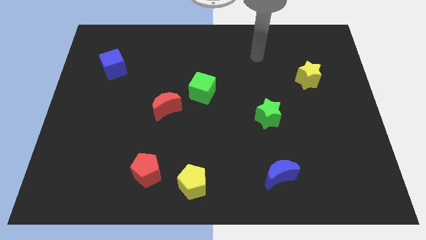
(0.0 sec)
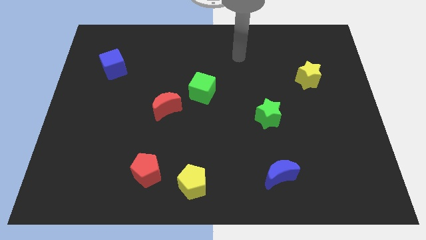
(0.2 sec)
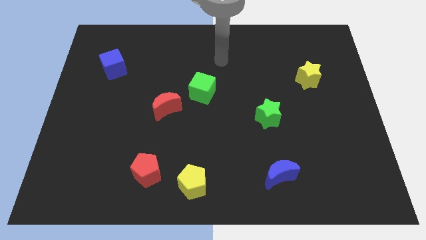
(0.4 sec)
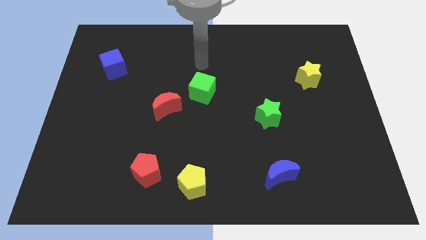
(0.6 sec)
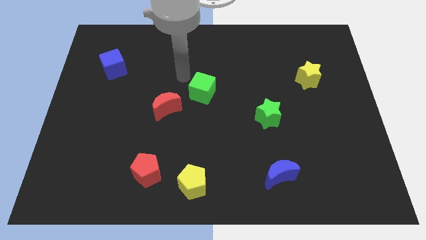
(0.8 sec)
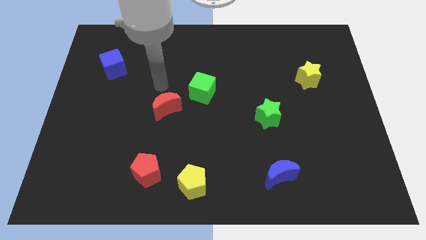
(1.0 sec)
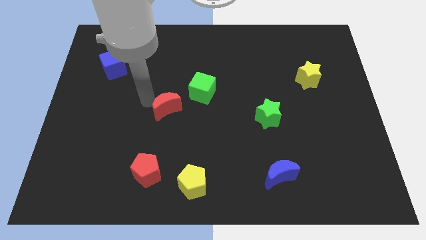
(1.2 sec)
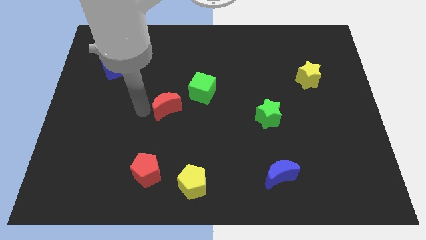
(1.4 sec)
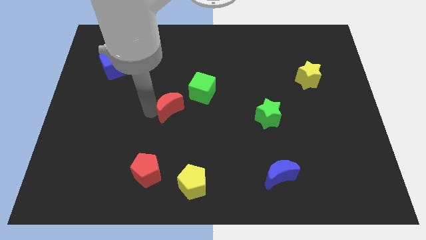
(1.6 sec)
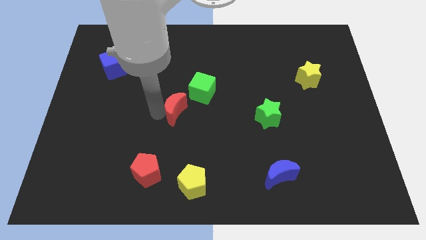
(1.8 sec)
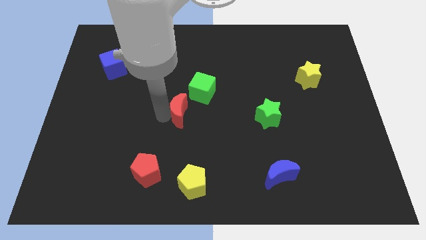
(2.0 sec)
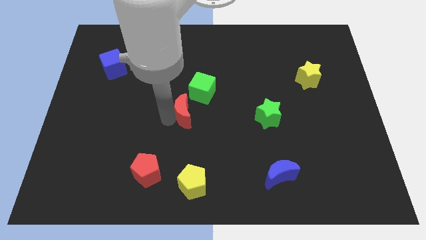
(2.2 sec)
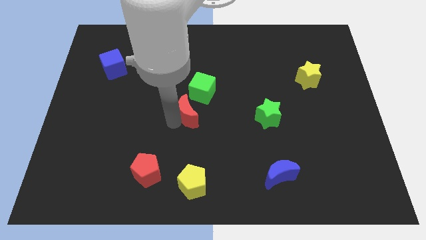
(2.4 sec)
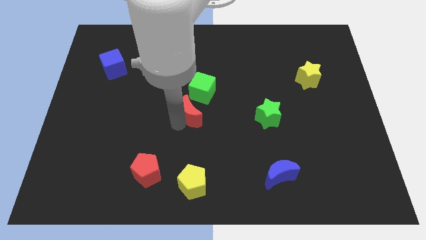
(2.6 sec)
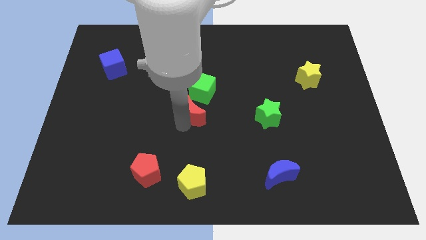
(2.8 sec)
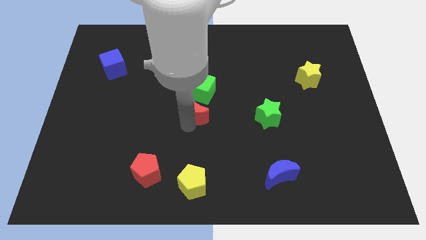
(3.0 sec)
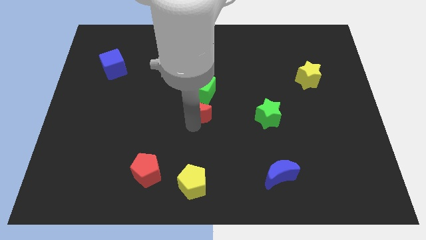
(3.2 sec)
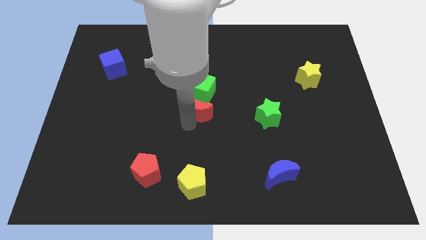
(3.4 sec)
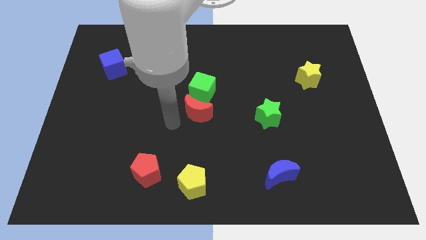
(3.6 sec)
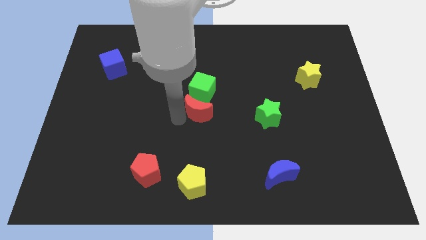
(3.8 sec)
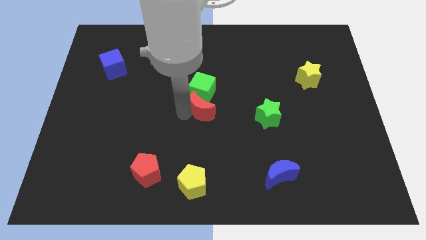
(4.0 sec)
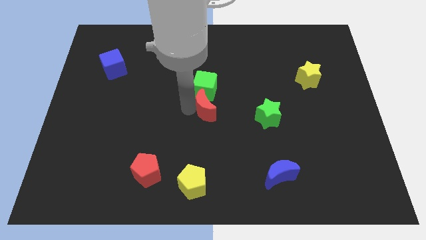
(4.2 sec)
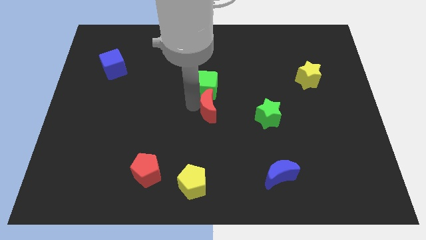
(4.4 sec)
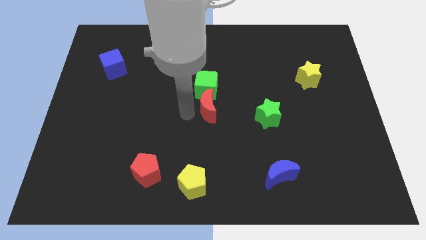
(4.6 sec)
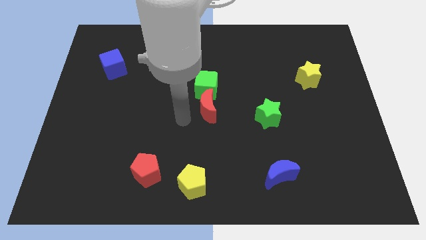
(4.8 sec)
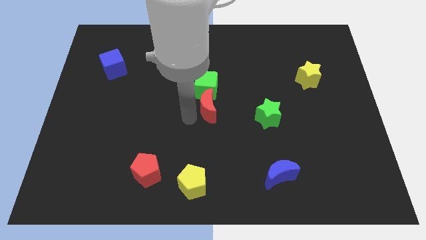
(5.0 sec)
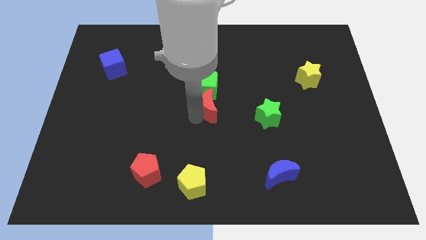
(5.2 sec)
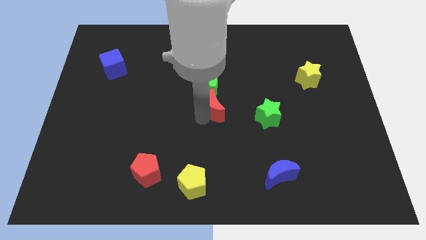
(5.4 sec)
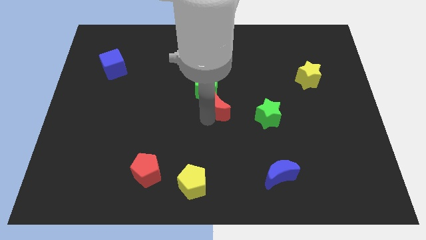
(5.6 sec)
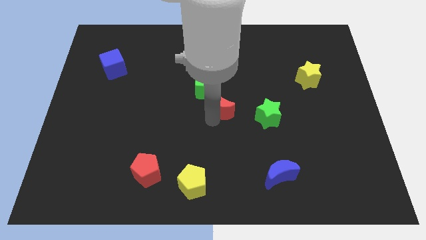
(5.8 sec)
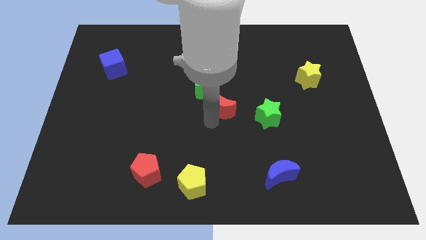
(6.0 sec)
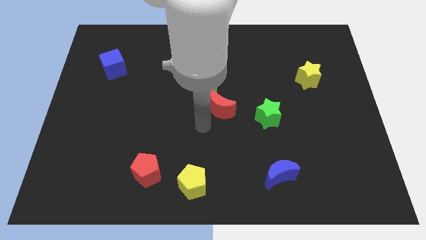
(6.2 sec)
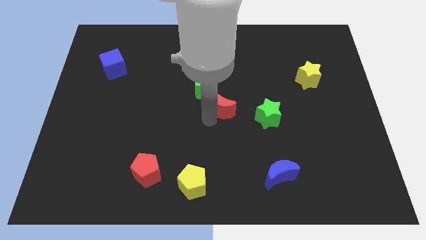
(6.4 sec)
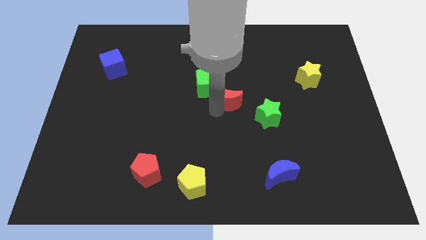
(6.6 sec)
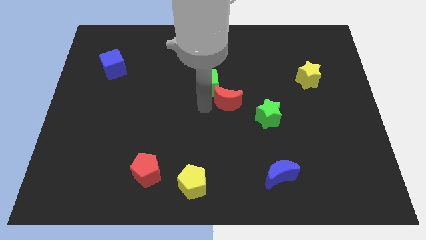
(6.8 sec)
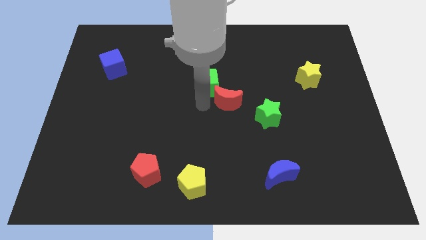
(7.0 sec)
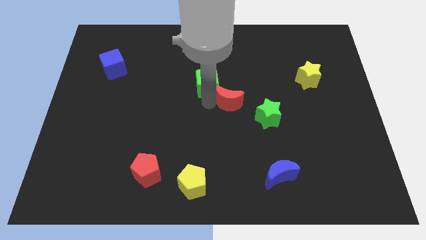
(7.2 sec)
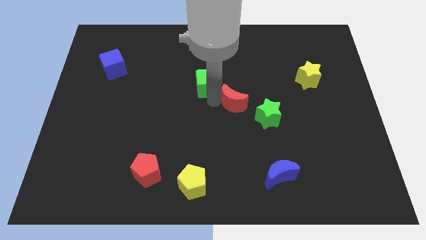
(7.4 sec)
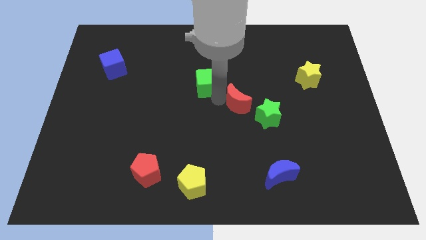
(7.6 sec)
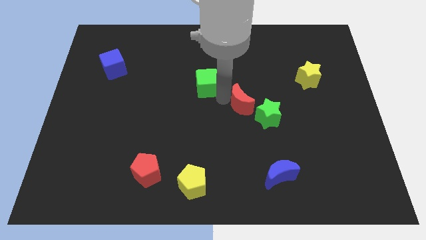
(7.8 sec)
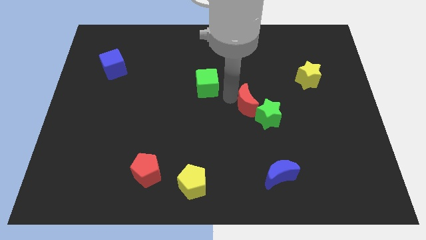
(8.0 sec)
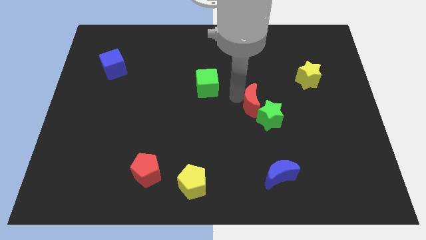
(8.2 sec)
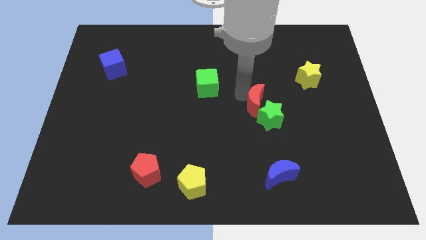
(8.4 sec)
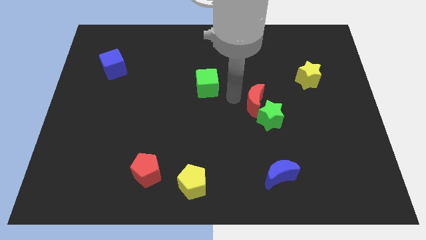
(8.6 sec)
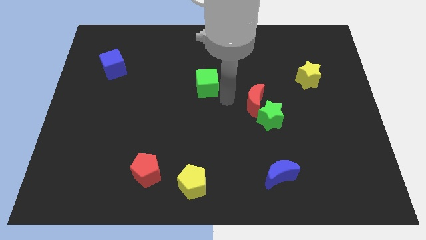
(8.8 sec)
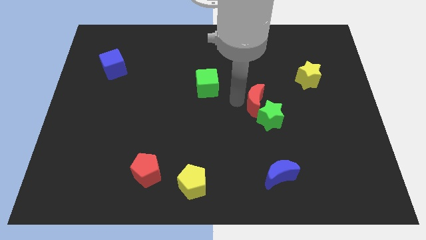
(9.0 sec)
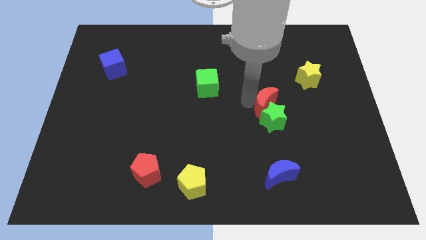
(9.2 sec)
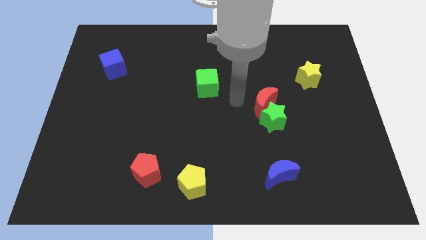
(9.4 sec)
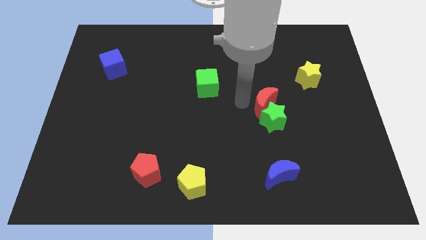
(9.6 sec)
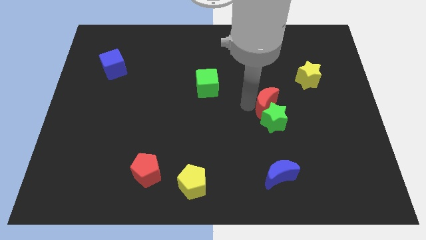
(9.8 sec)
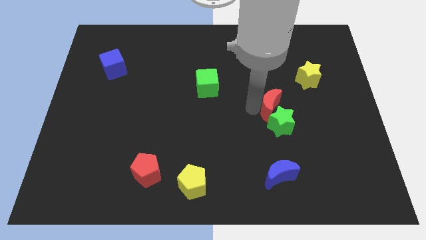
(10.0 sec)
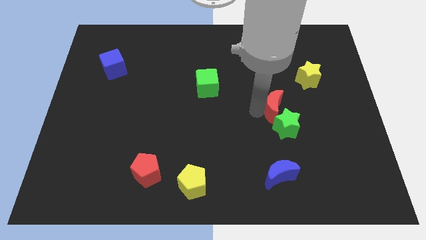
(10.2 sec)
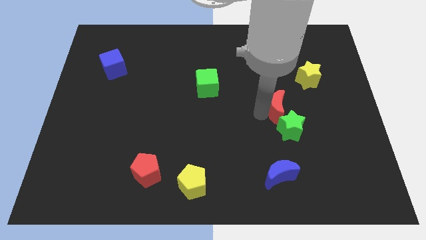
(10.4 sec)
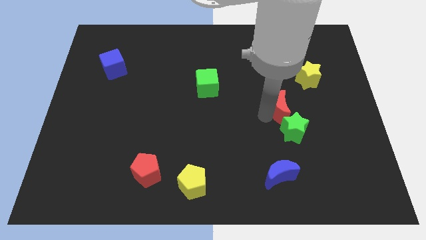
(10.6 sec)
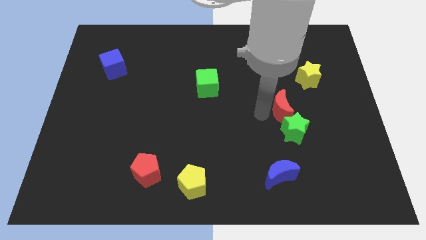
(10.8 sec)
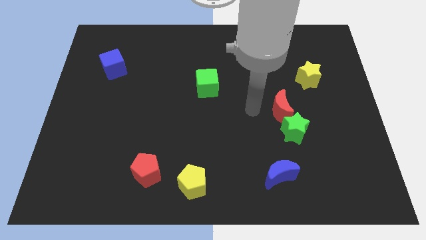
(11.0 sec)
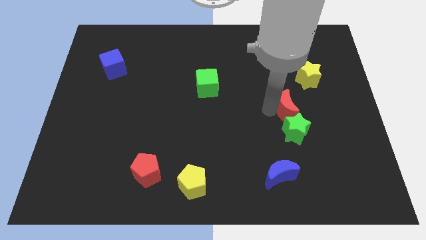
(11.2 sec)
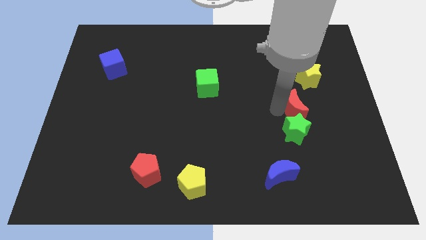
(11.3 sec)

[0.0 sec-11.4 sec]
put the red moon below the yellow star

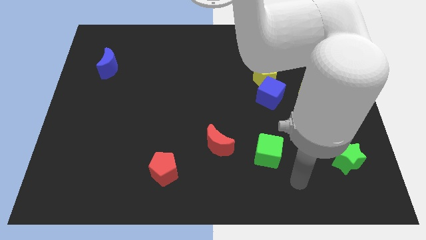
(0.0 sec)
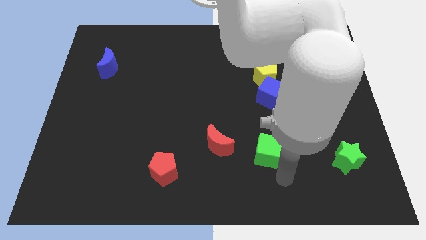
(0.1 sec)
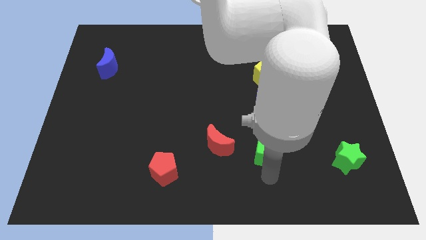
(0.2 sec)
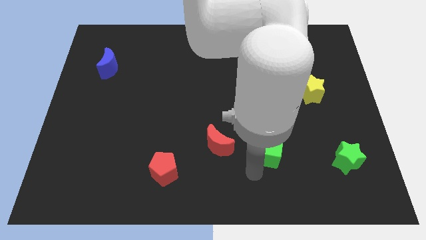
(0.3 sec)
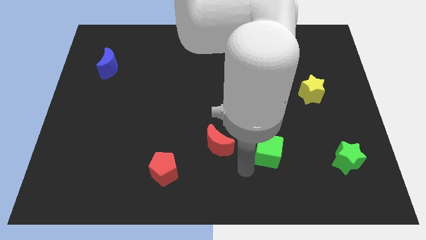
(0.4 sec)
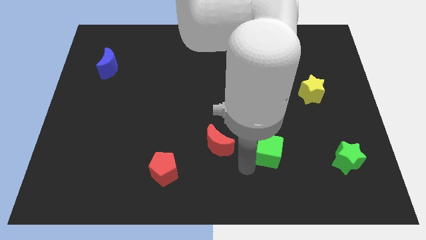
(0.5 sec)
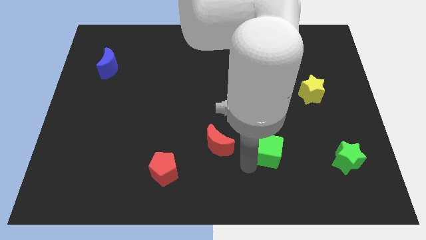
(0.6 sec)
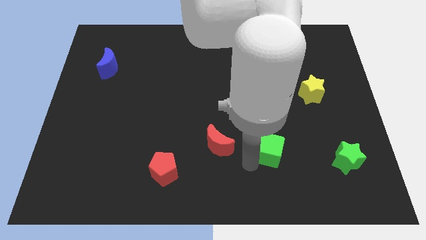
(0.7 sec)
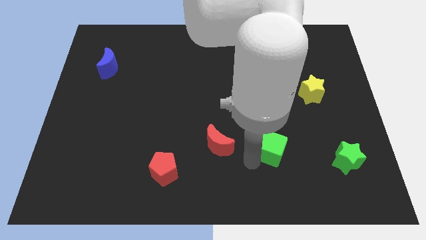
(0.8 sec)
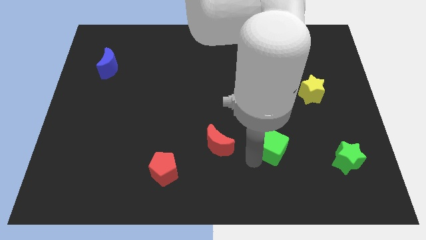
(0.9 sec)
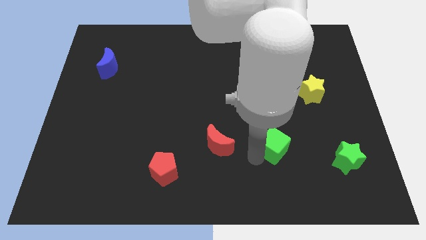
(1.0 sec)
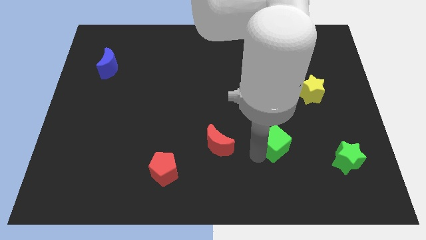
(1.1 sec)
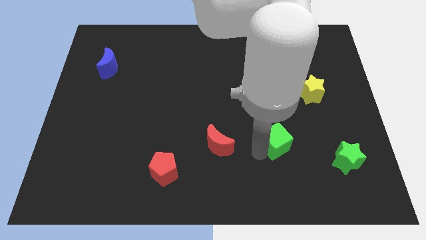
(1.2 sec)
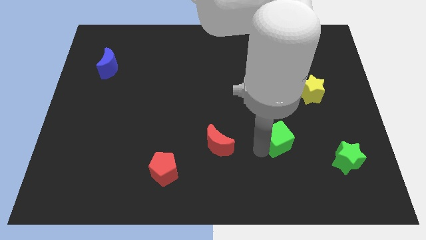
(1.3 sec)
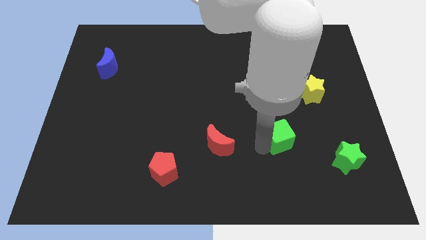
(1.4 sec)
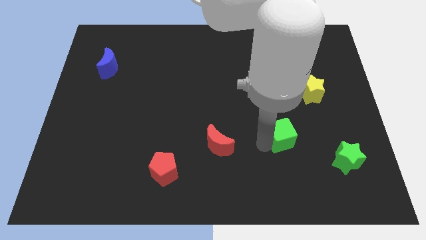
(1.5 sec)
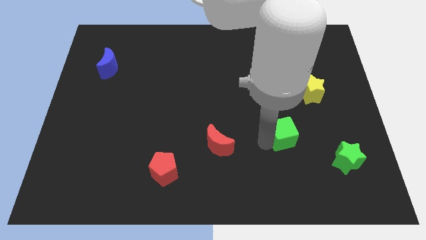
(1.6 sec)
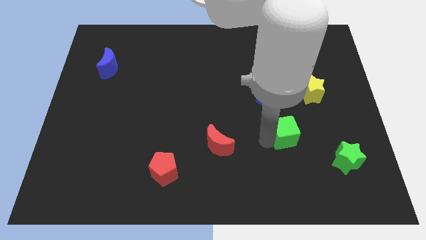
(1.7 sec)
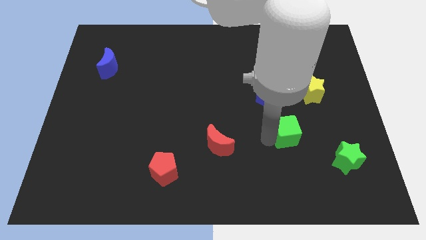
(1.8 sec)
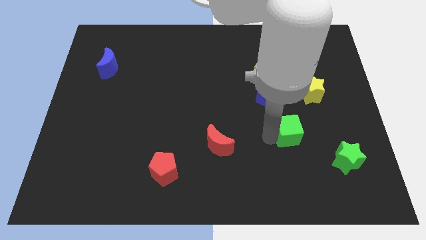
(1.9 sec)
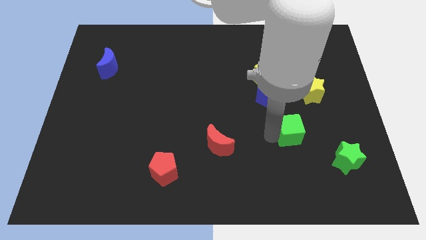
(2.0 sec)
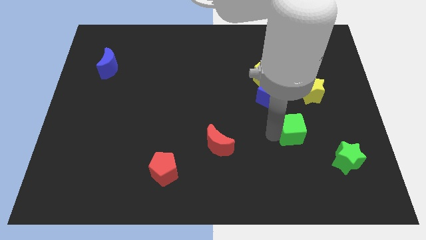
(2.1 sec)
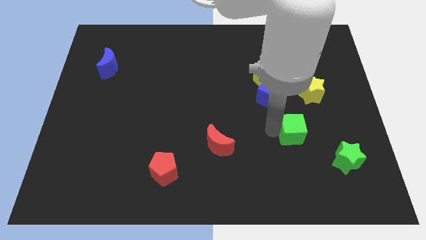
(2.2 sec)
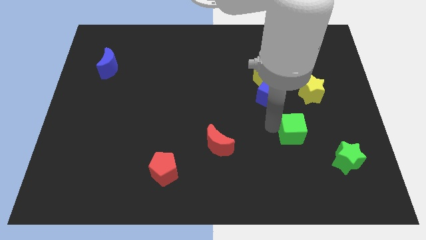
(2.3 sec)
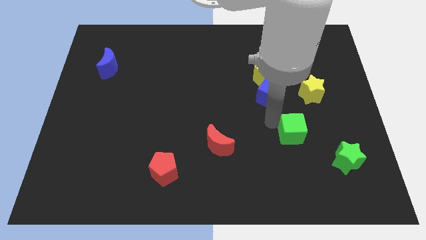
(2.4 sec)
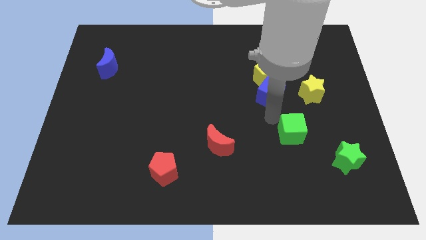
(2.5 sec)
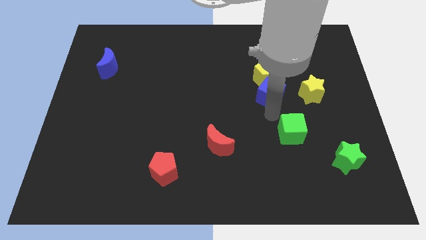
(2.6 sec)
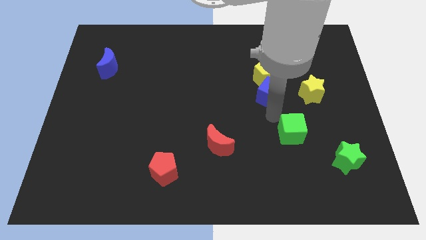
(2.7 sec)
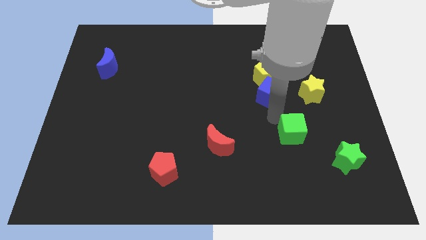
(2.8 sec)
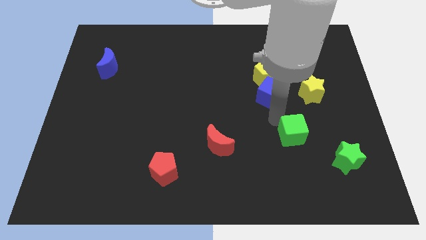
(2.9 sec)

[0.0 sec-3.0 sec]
put the green cube to the top left side of the green star
